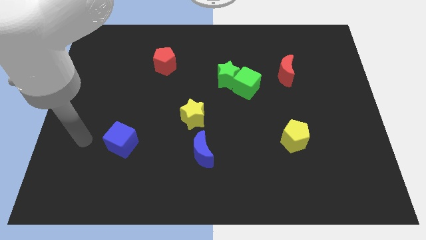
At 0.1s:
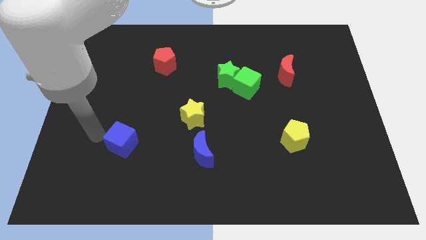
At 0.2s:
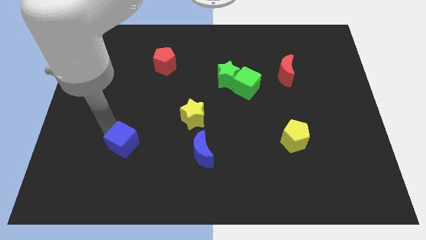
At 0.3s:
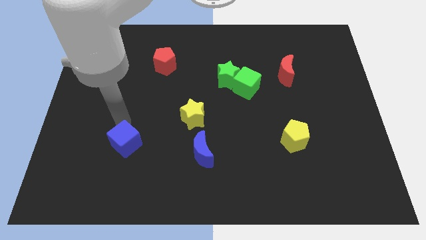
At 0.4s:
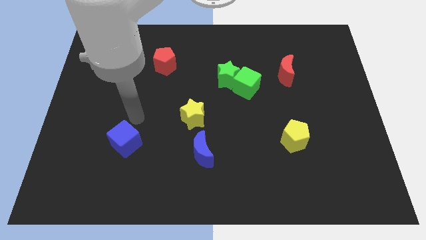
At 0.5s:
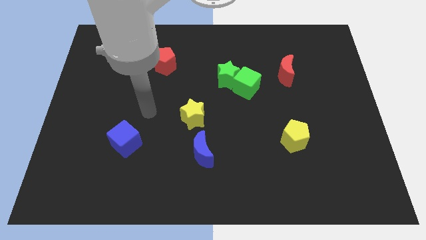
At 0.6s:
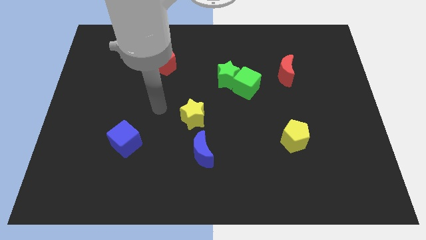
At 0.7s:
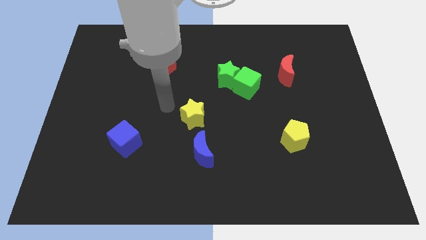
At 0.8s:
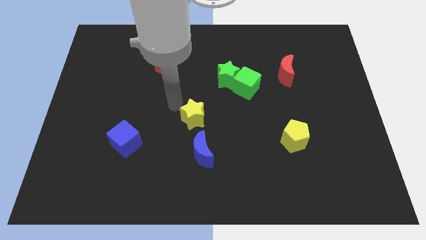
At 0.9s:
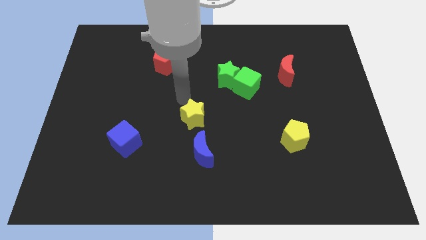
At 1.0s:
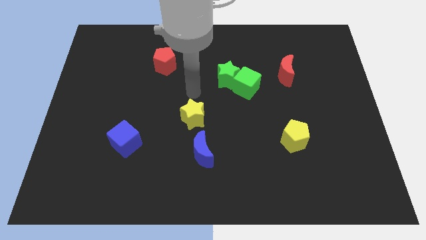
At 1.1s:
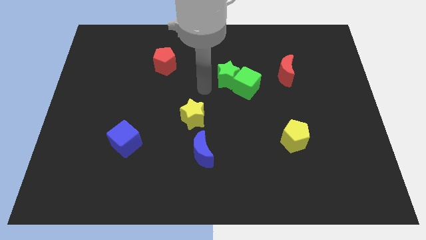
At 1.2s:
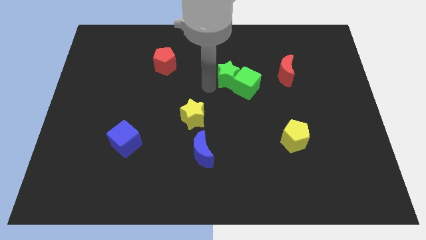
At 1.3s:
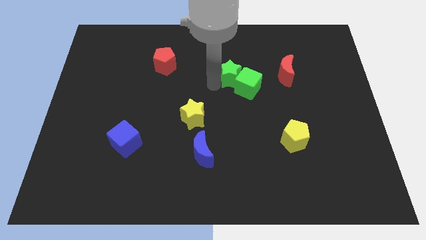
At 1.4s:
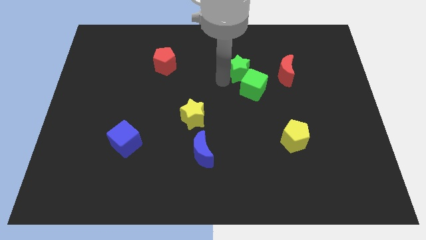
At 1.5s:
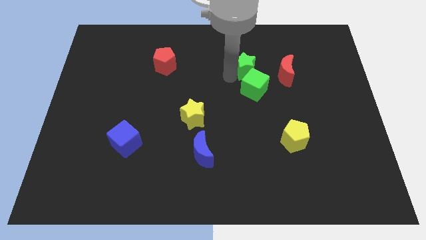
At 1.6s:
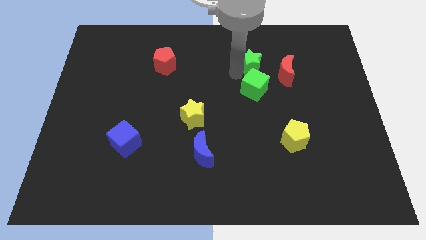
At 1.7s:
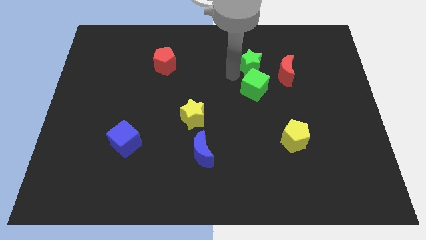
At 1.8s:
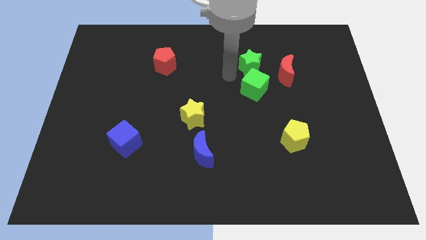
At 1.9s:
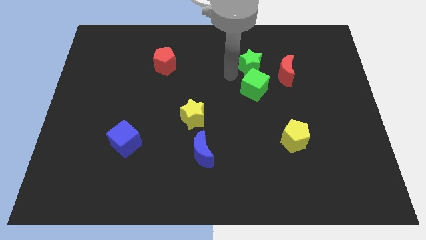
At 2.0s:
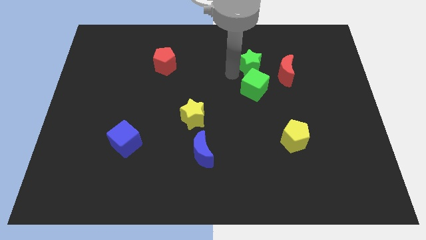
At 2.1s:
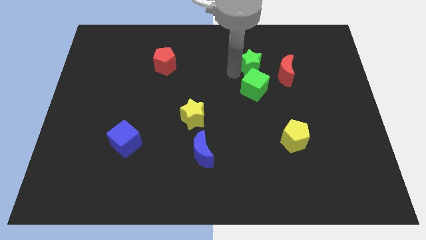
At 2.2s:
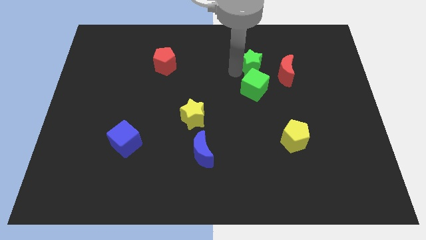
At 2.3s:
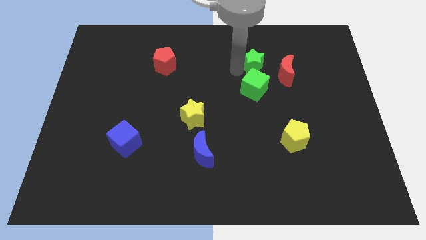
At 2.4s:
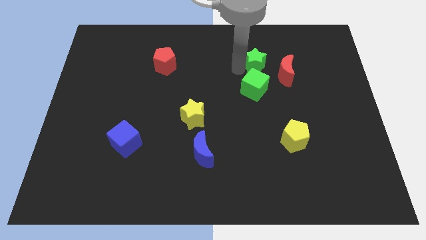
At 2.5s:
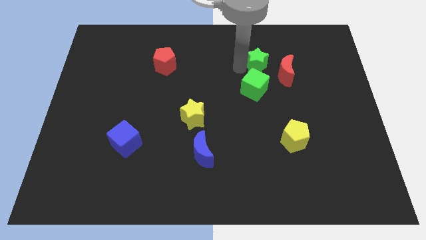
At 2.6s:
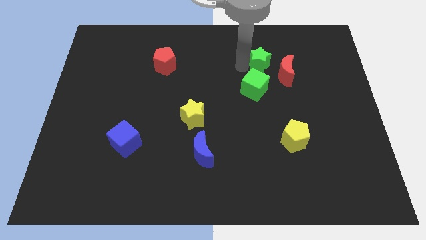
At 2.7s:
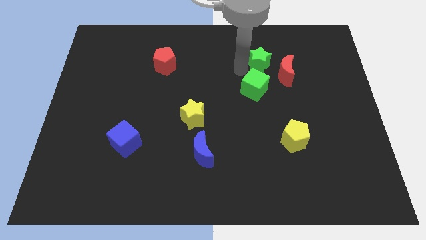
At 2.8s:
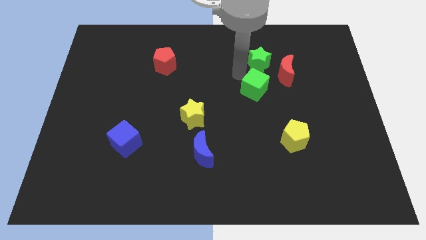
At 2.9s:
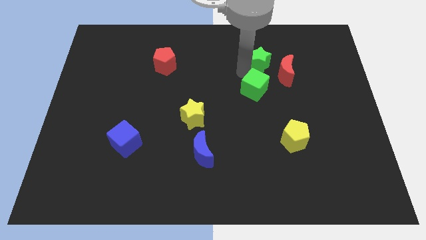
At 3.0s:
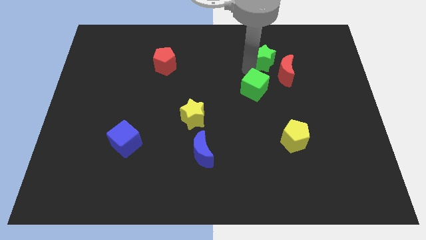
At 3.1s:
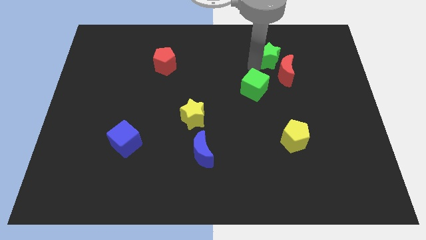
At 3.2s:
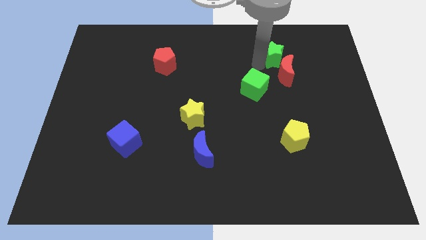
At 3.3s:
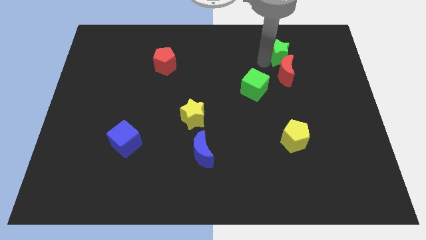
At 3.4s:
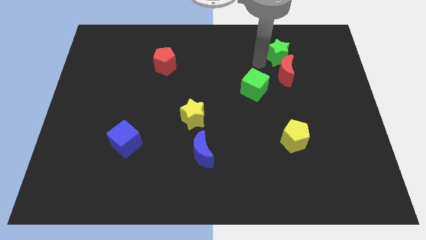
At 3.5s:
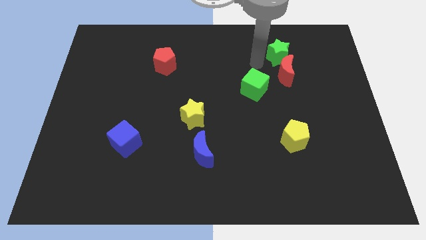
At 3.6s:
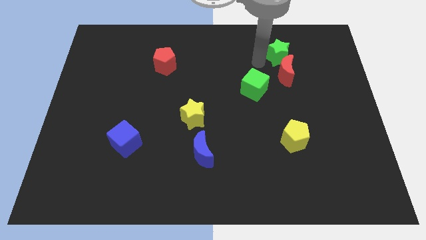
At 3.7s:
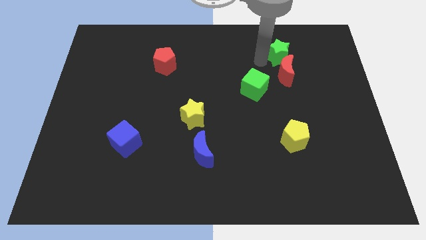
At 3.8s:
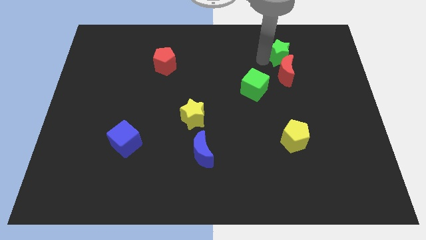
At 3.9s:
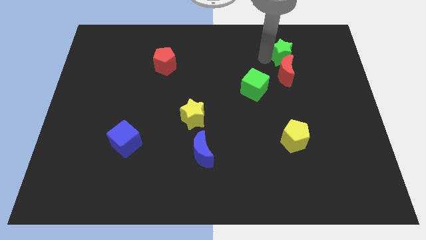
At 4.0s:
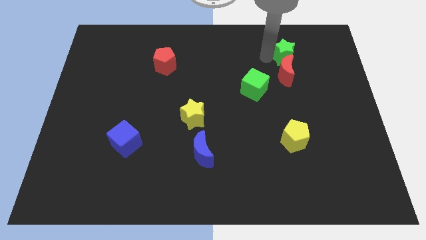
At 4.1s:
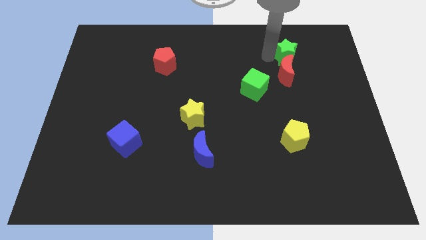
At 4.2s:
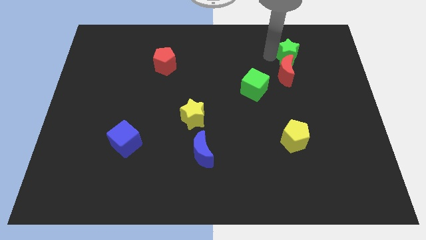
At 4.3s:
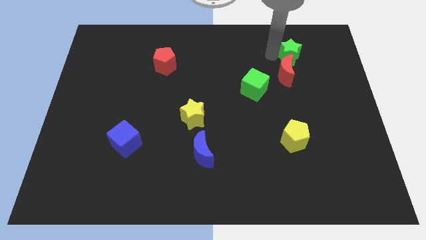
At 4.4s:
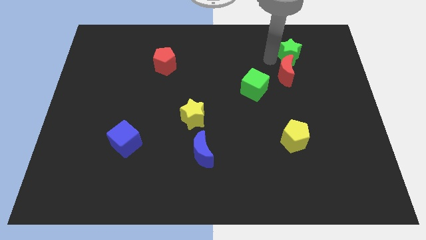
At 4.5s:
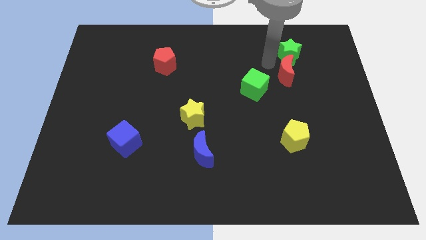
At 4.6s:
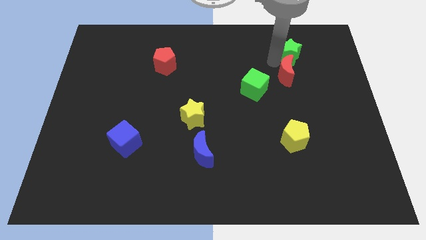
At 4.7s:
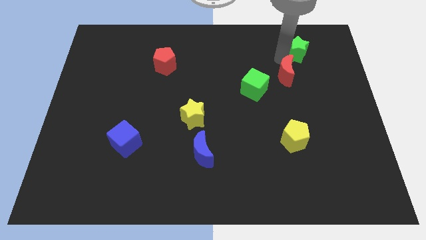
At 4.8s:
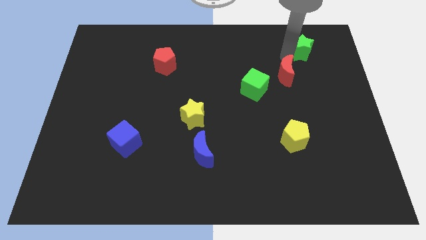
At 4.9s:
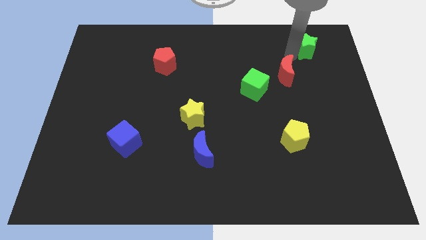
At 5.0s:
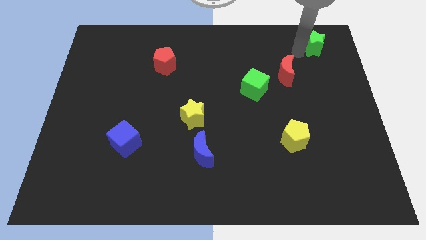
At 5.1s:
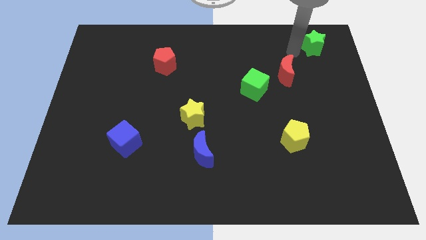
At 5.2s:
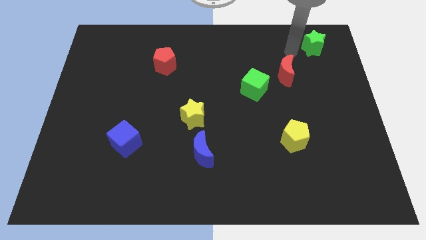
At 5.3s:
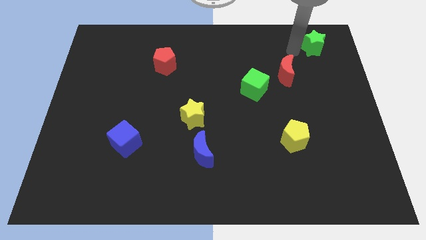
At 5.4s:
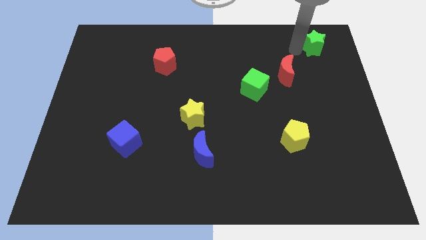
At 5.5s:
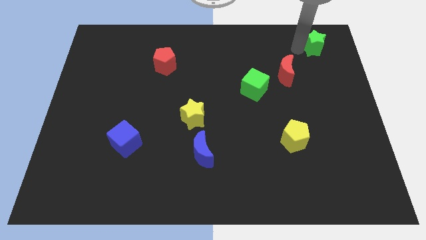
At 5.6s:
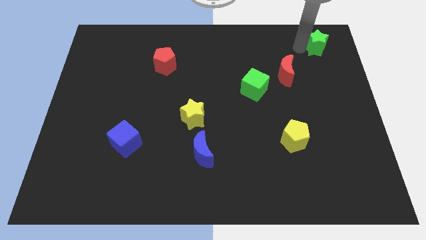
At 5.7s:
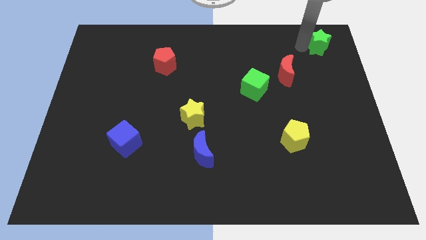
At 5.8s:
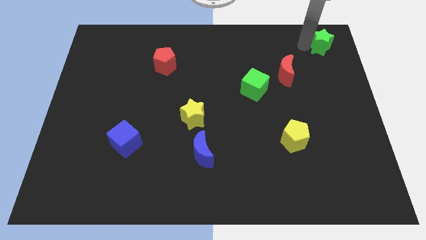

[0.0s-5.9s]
move the green star to the top right

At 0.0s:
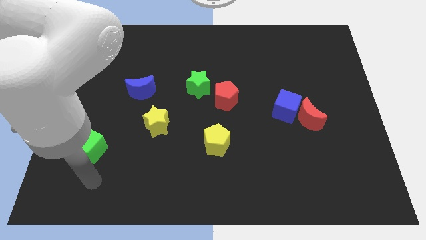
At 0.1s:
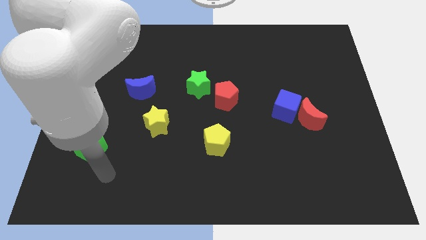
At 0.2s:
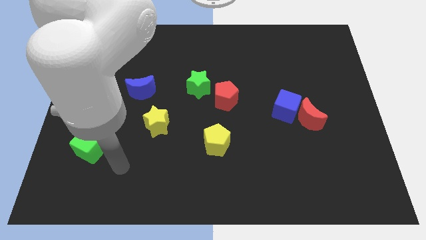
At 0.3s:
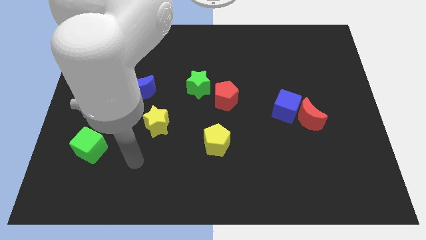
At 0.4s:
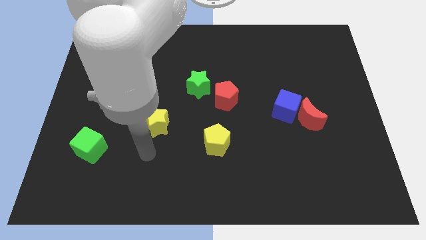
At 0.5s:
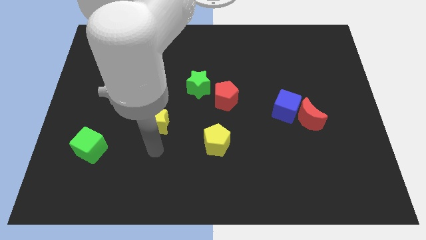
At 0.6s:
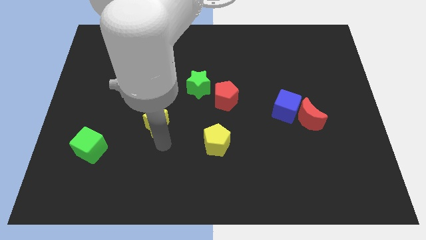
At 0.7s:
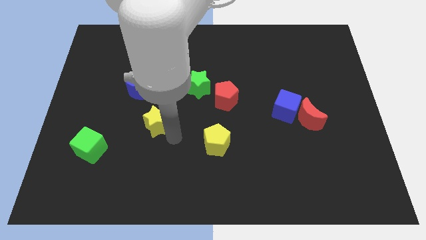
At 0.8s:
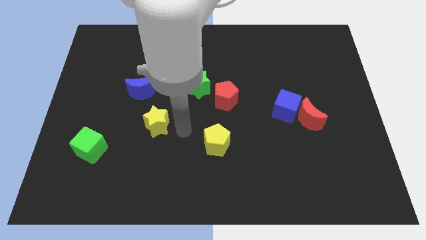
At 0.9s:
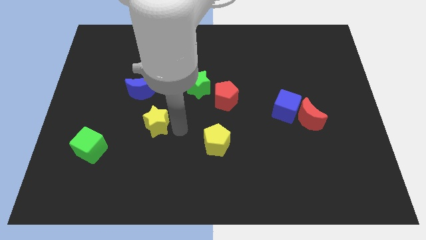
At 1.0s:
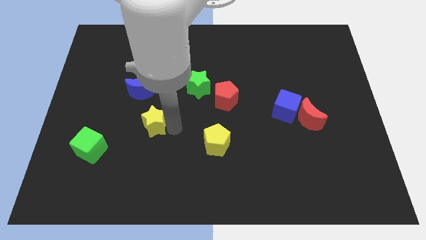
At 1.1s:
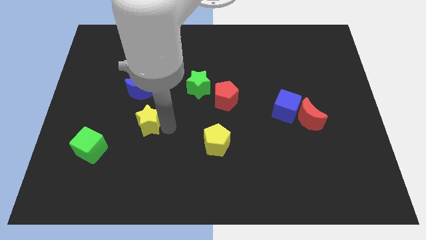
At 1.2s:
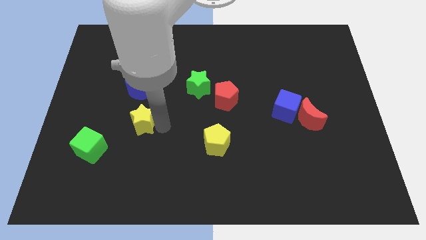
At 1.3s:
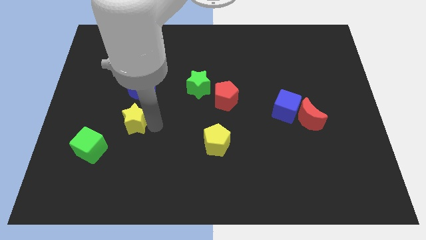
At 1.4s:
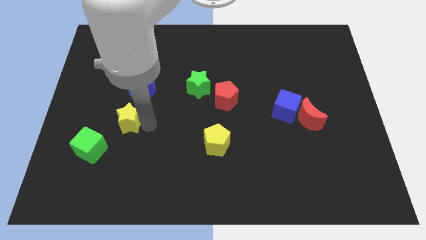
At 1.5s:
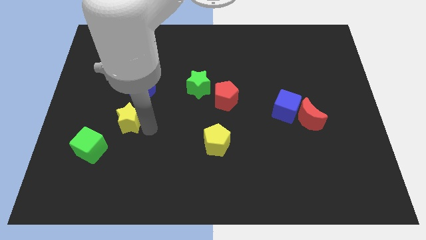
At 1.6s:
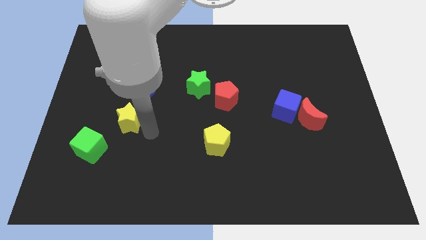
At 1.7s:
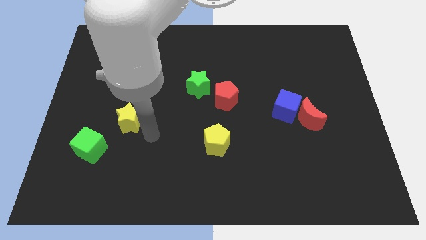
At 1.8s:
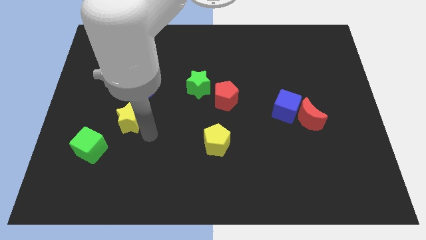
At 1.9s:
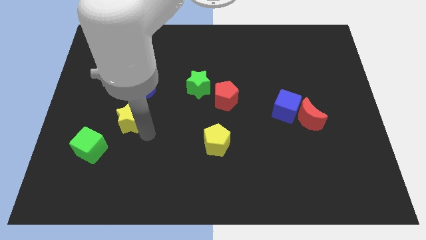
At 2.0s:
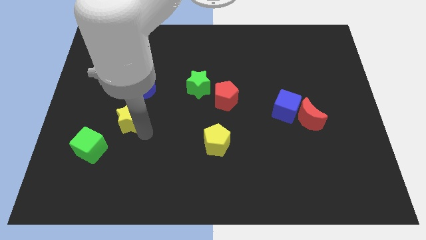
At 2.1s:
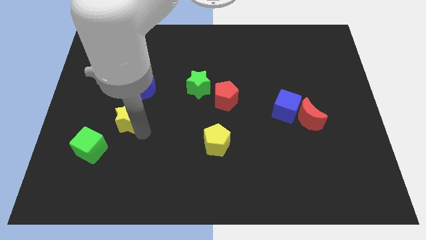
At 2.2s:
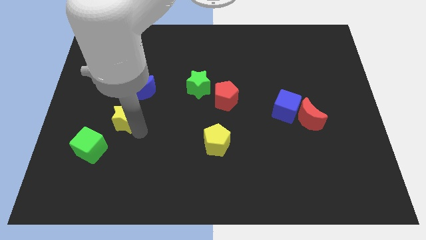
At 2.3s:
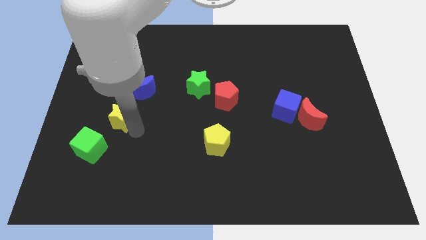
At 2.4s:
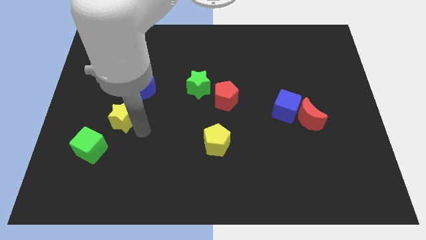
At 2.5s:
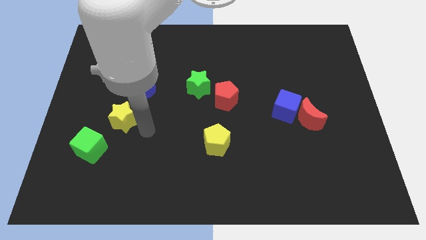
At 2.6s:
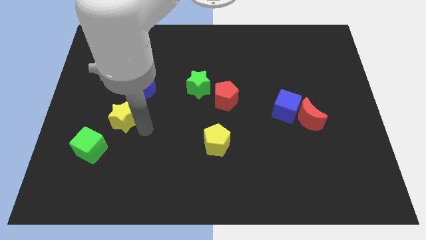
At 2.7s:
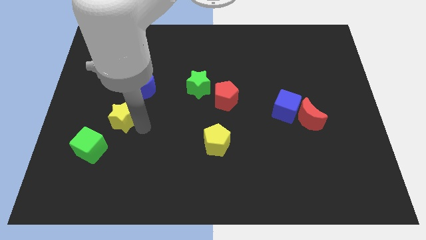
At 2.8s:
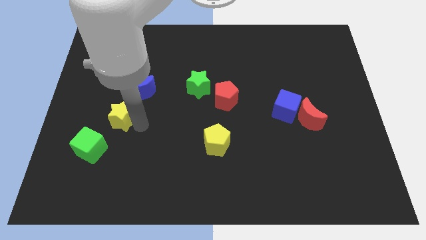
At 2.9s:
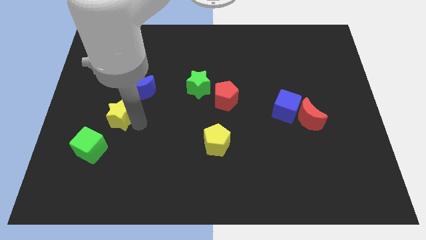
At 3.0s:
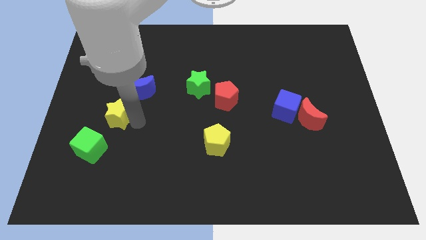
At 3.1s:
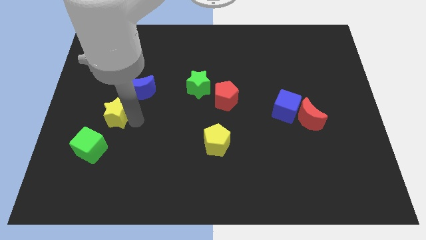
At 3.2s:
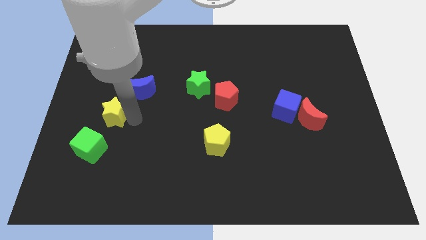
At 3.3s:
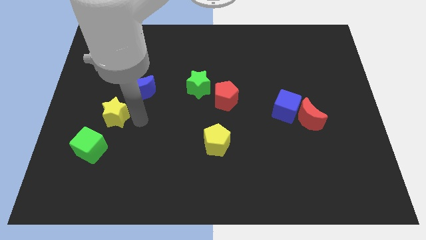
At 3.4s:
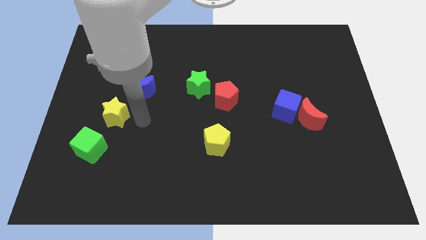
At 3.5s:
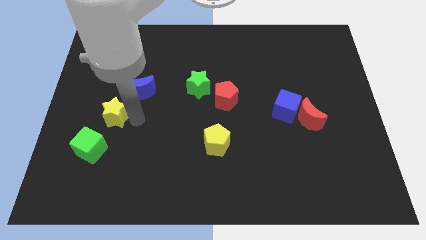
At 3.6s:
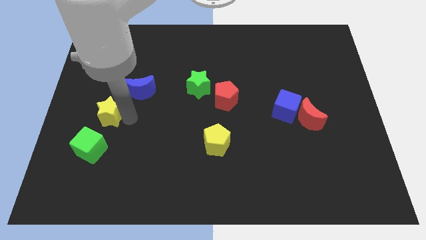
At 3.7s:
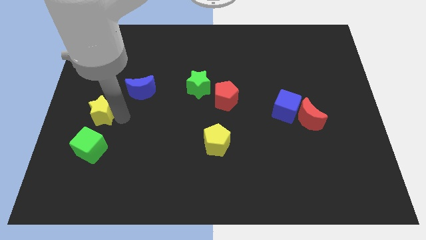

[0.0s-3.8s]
put the yellow star to the left side
